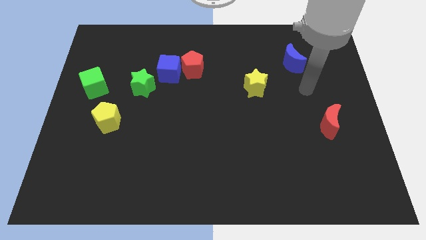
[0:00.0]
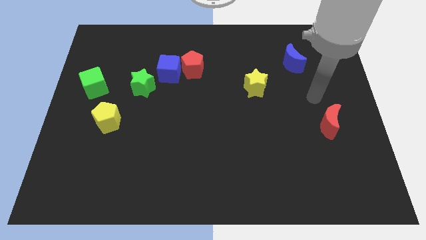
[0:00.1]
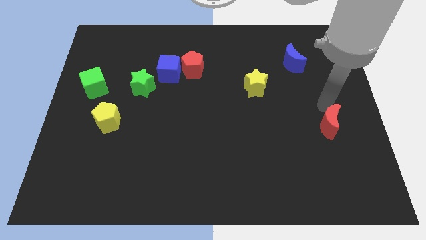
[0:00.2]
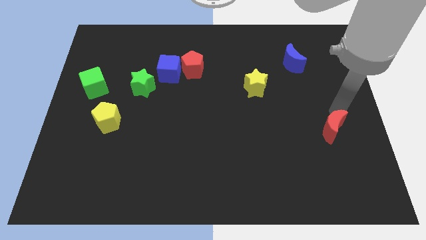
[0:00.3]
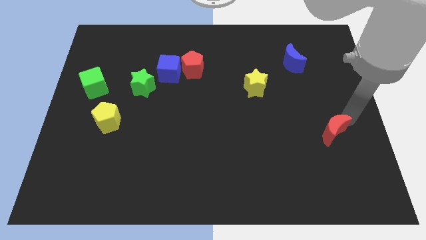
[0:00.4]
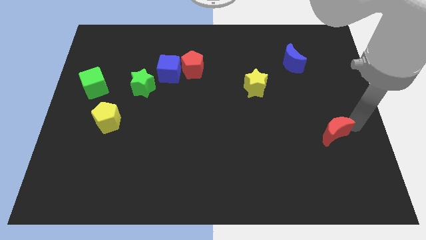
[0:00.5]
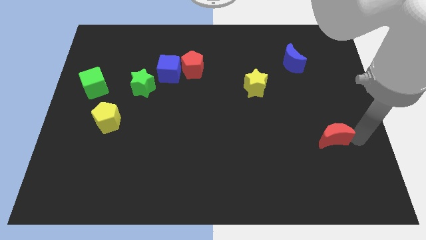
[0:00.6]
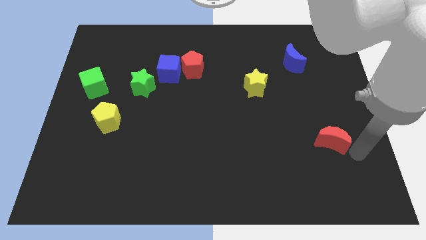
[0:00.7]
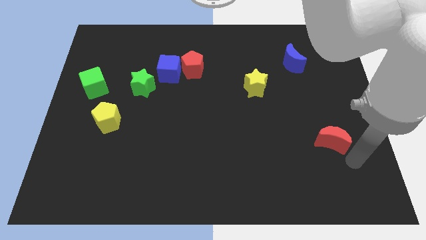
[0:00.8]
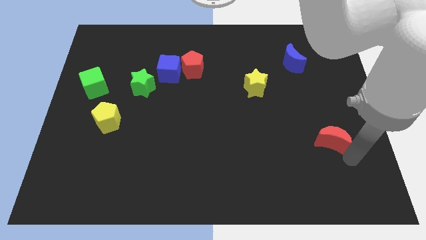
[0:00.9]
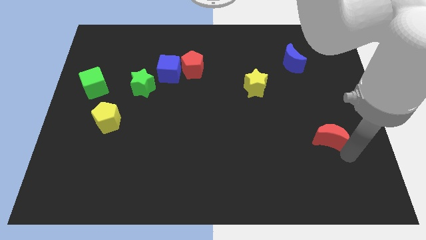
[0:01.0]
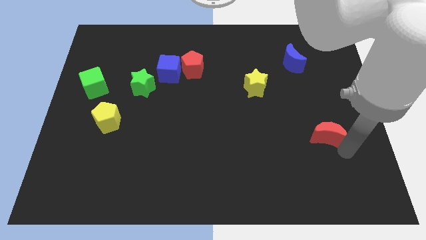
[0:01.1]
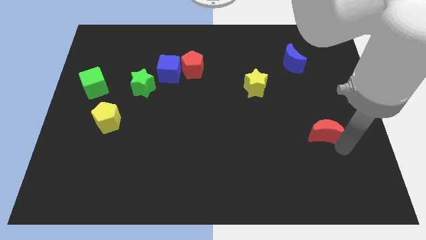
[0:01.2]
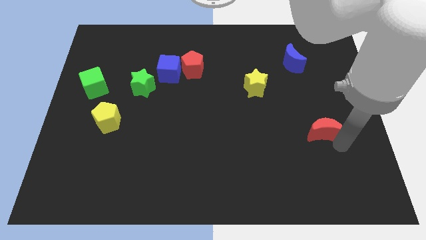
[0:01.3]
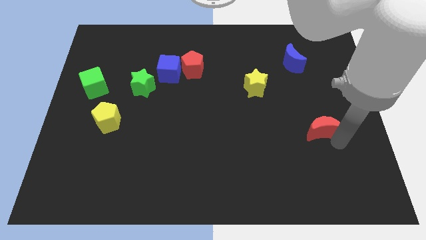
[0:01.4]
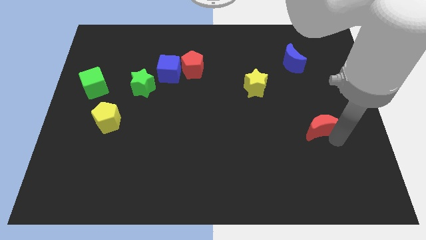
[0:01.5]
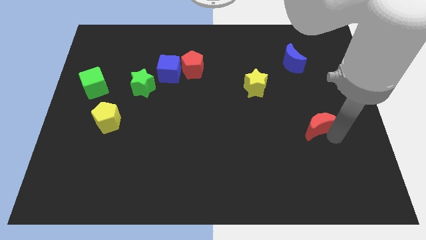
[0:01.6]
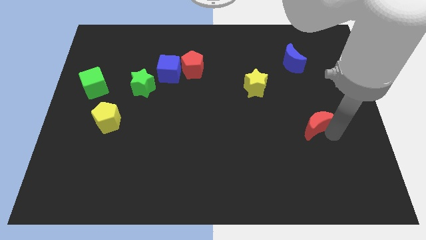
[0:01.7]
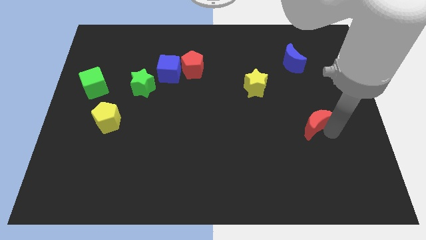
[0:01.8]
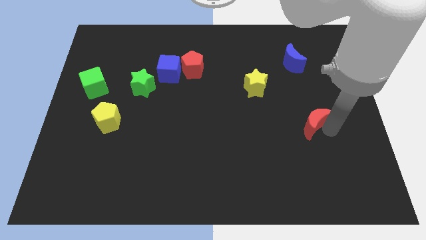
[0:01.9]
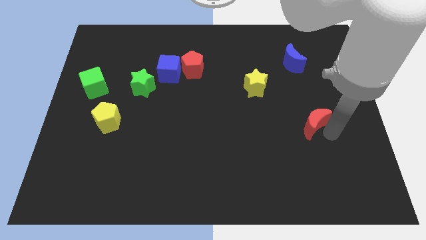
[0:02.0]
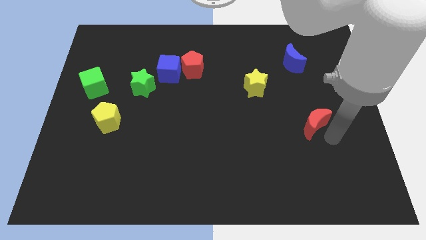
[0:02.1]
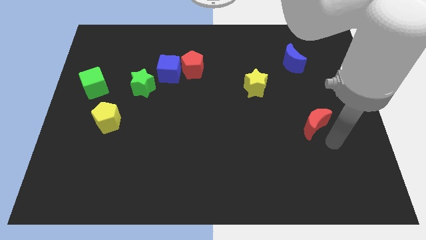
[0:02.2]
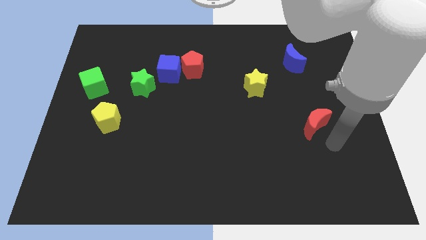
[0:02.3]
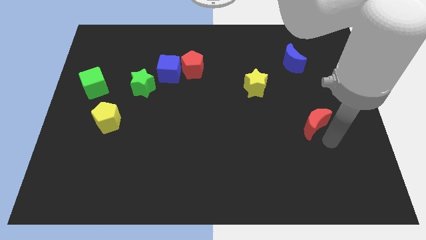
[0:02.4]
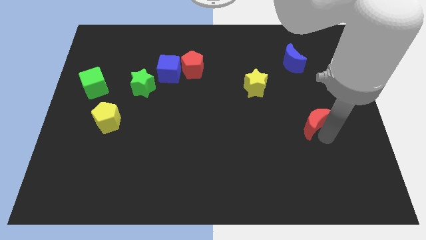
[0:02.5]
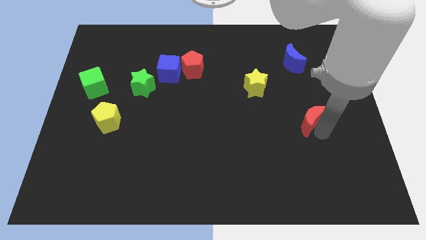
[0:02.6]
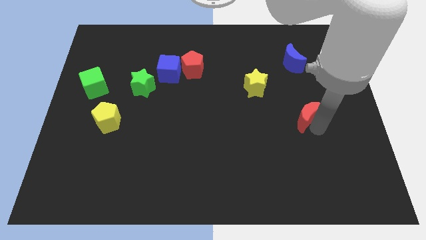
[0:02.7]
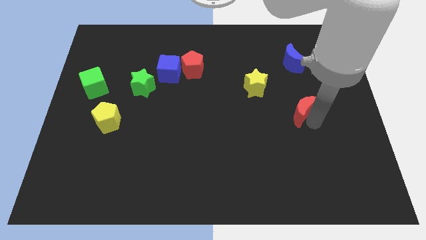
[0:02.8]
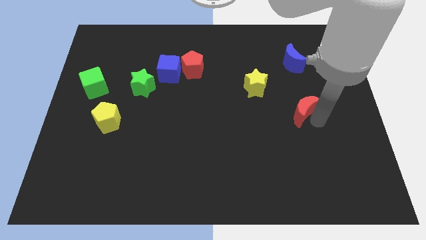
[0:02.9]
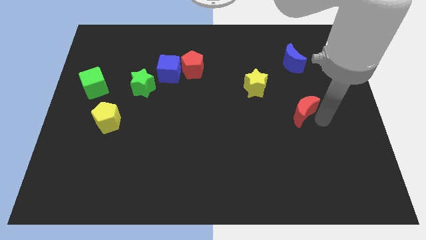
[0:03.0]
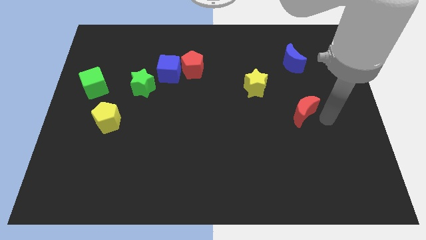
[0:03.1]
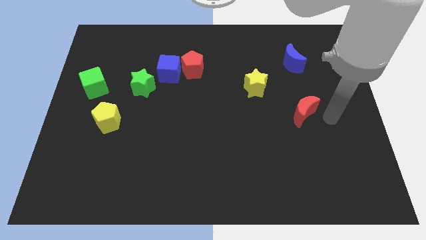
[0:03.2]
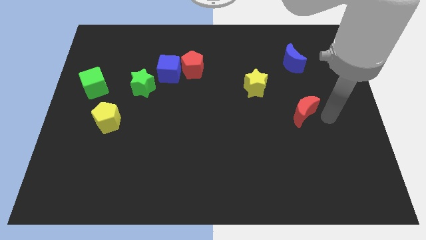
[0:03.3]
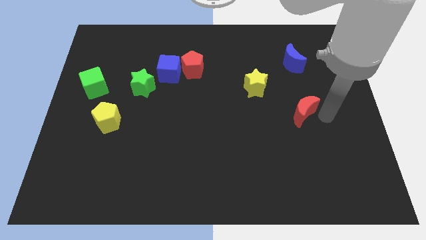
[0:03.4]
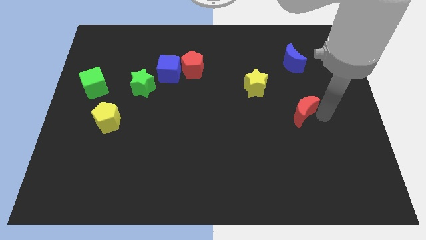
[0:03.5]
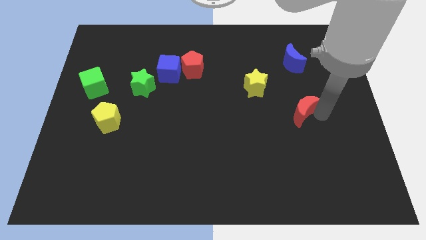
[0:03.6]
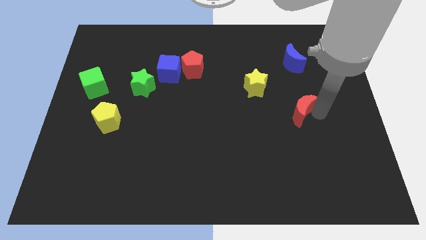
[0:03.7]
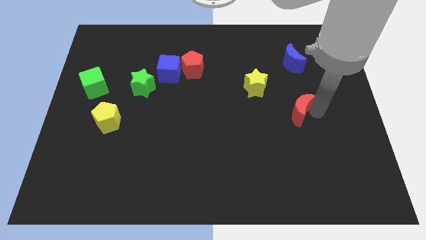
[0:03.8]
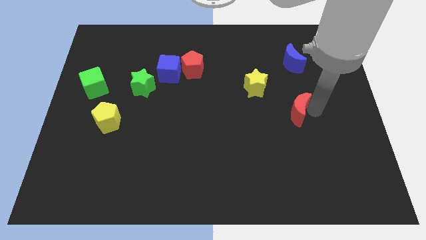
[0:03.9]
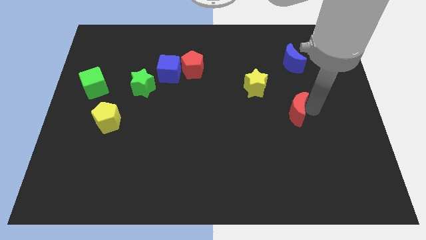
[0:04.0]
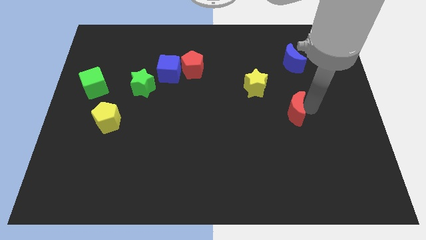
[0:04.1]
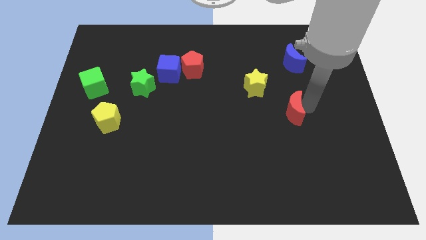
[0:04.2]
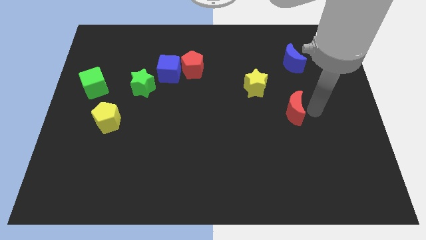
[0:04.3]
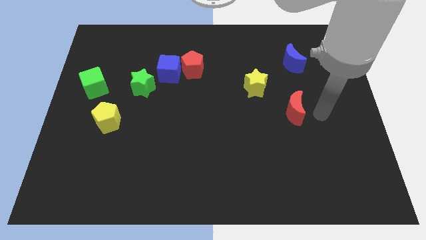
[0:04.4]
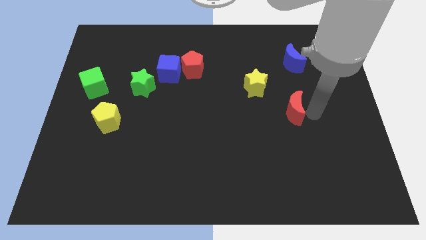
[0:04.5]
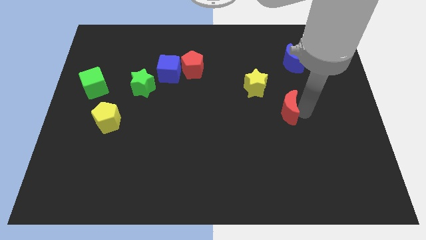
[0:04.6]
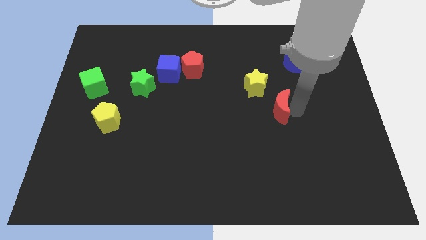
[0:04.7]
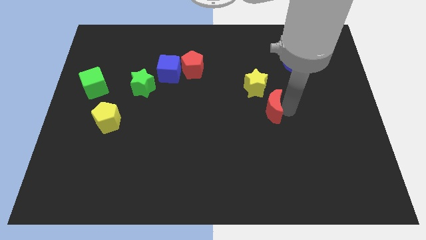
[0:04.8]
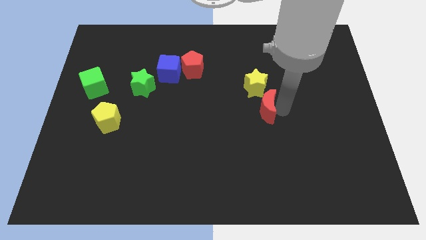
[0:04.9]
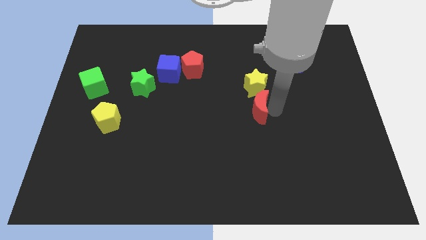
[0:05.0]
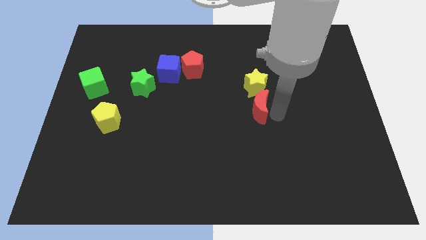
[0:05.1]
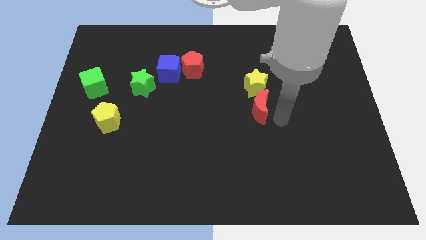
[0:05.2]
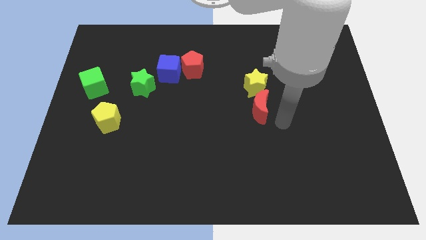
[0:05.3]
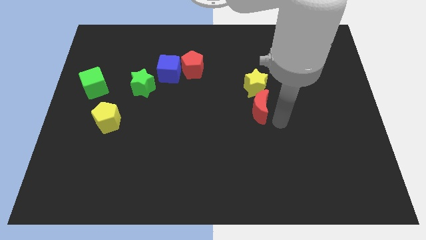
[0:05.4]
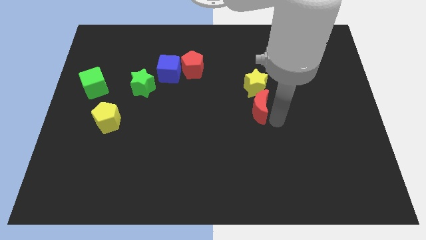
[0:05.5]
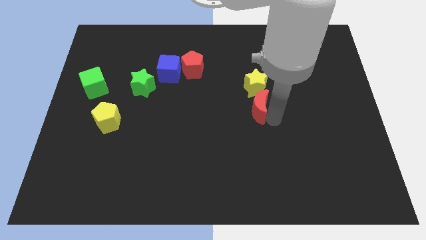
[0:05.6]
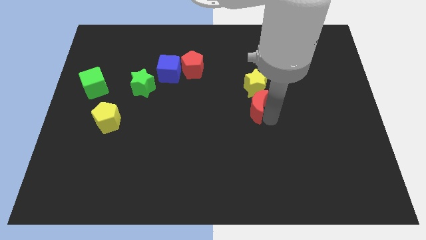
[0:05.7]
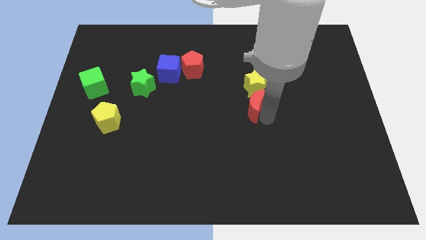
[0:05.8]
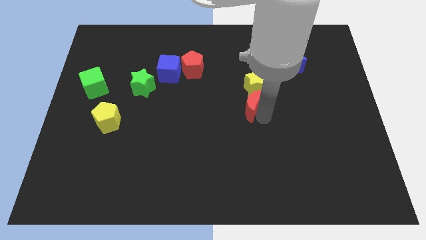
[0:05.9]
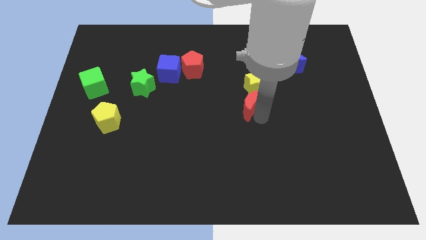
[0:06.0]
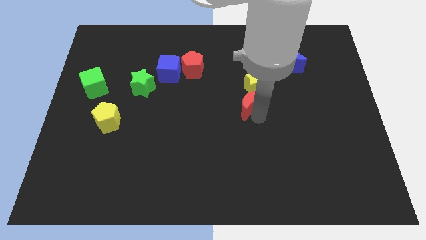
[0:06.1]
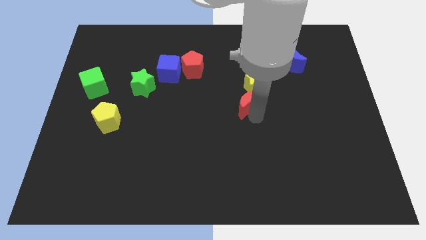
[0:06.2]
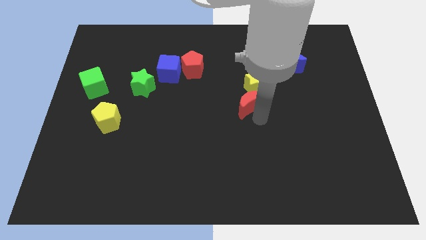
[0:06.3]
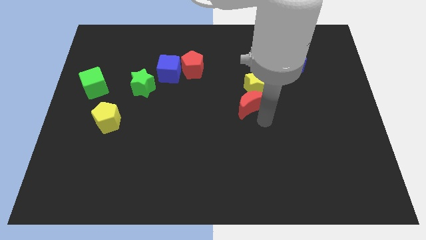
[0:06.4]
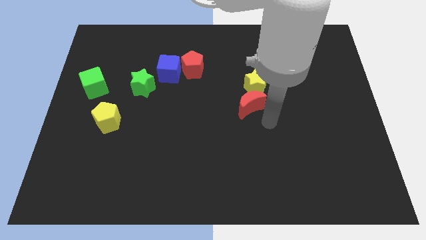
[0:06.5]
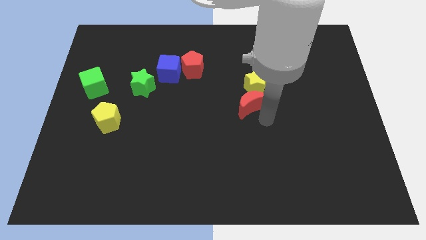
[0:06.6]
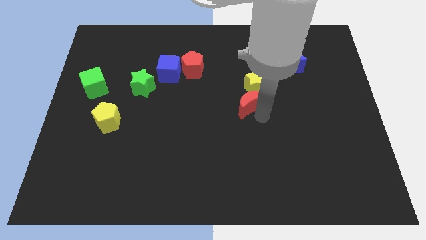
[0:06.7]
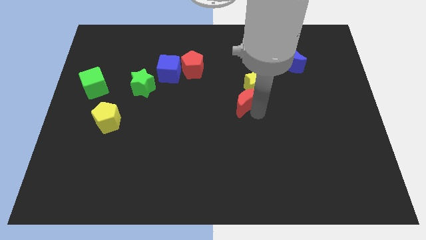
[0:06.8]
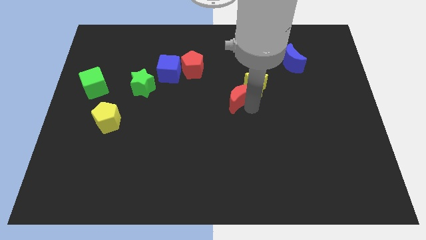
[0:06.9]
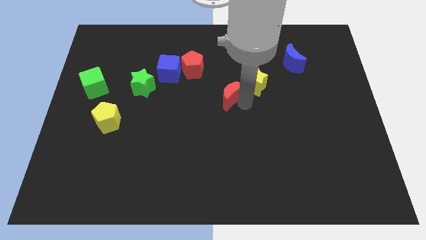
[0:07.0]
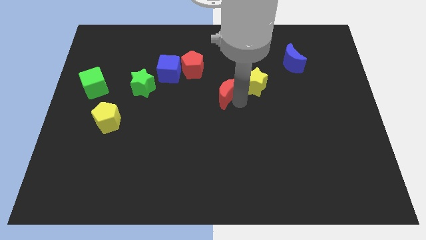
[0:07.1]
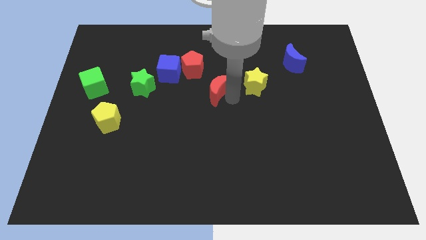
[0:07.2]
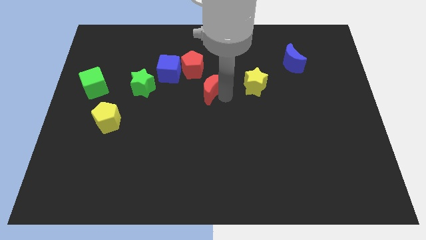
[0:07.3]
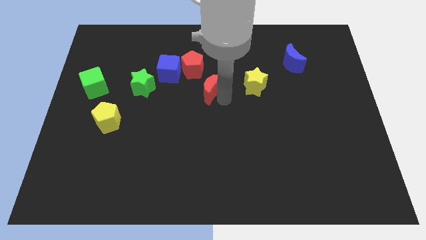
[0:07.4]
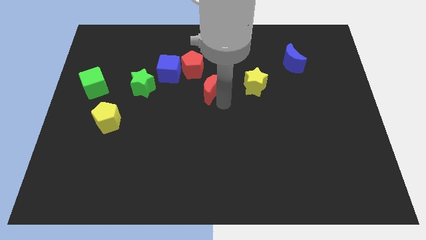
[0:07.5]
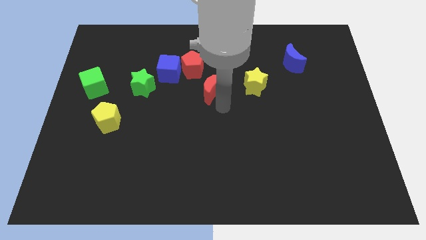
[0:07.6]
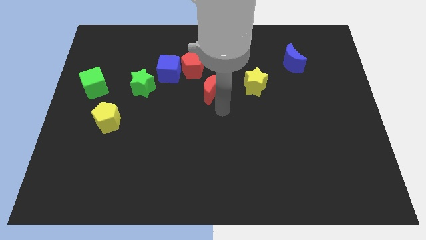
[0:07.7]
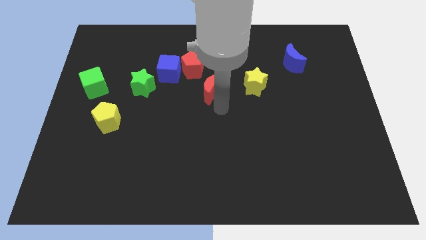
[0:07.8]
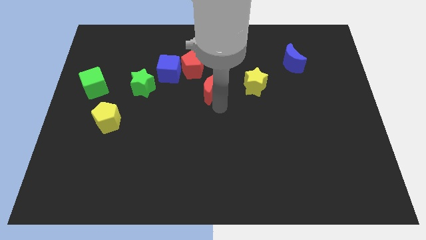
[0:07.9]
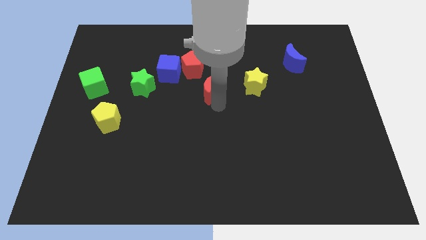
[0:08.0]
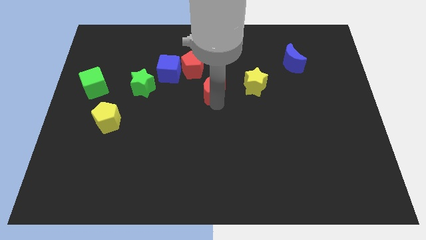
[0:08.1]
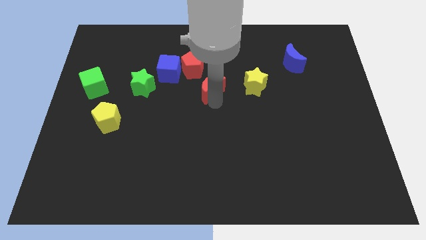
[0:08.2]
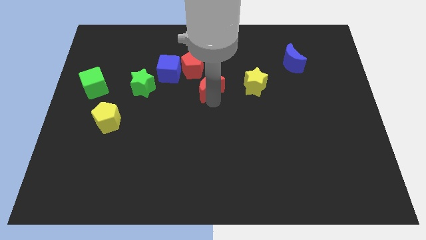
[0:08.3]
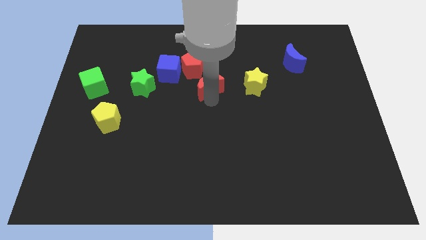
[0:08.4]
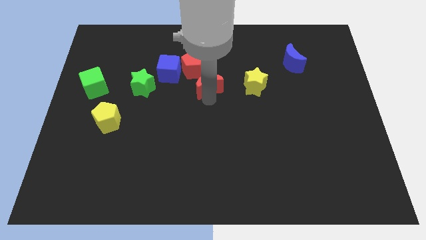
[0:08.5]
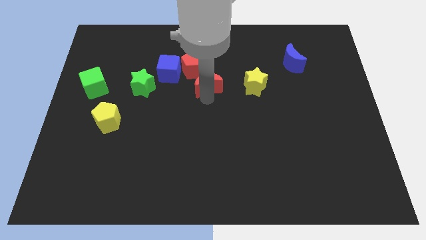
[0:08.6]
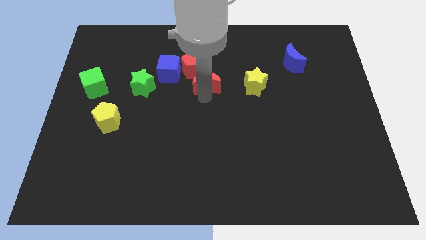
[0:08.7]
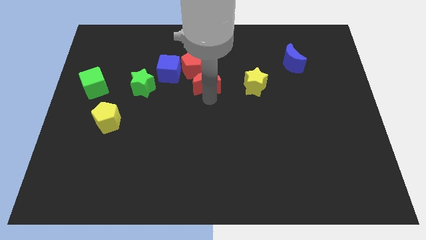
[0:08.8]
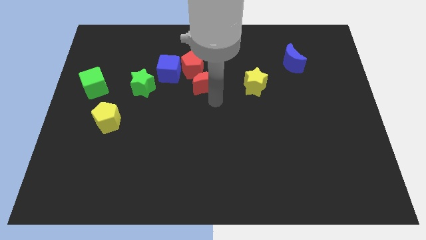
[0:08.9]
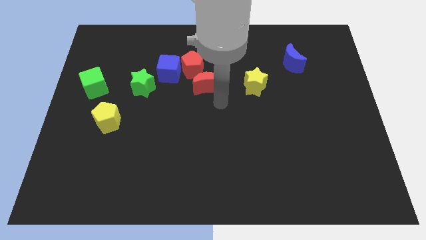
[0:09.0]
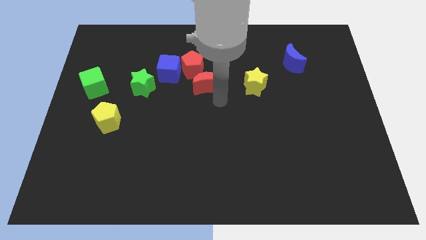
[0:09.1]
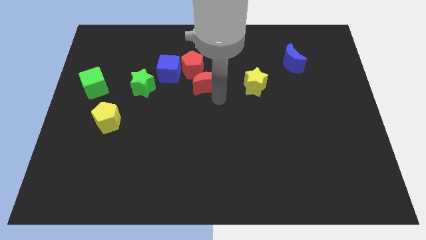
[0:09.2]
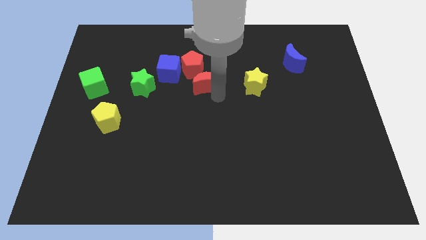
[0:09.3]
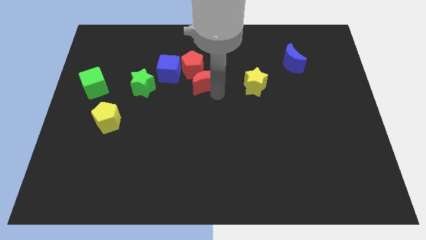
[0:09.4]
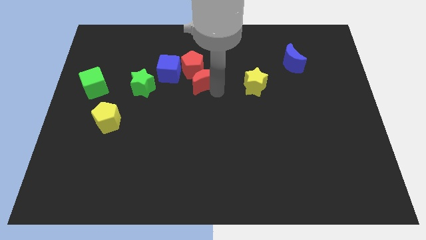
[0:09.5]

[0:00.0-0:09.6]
slide the red moon next to the red pentagon
